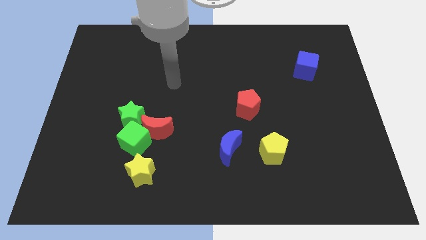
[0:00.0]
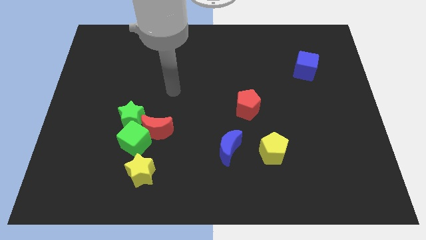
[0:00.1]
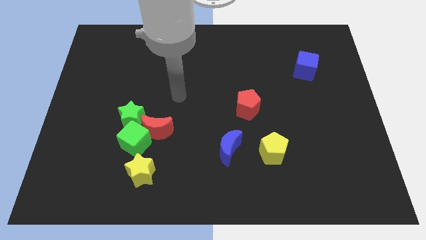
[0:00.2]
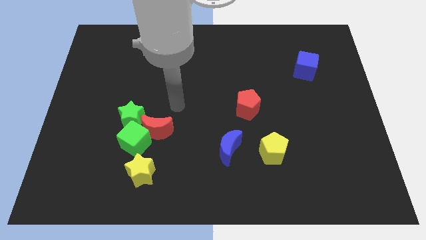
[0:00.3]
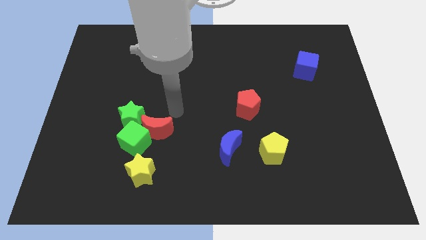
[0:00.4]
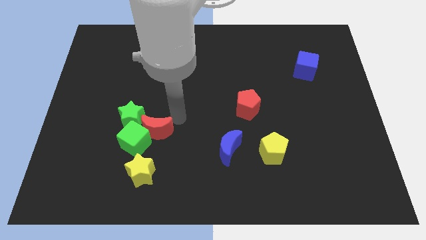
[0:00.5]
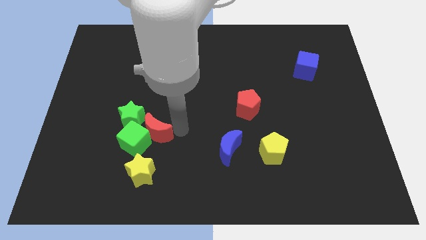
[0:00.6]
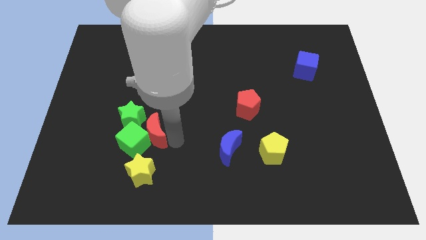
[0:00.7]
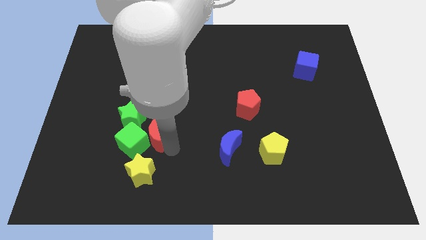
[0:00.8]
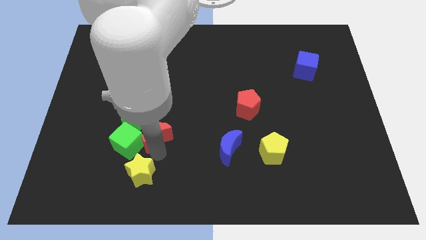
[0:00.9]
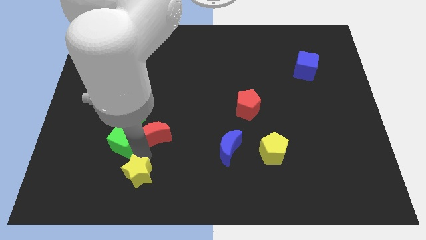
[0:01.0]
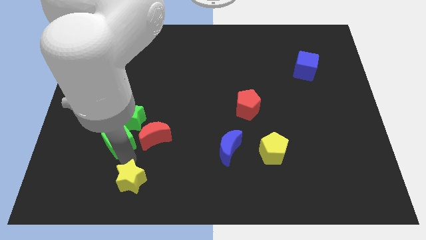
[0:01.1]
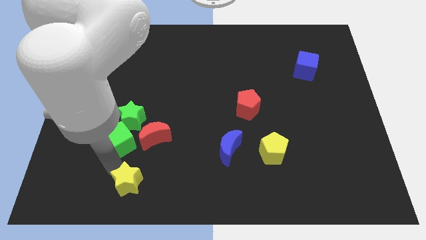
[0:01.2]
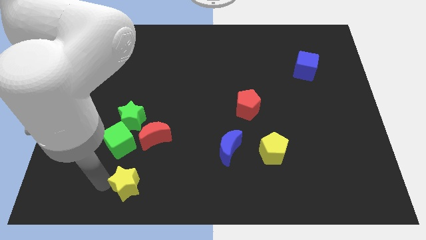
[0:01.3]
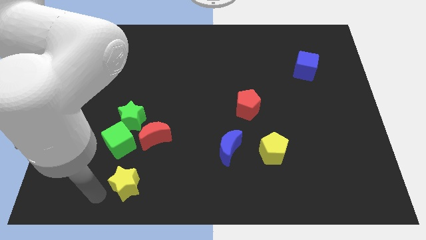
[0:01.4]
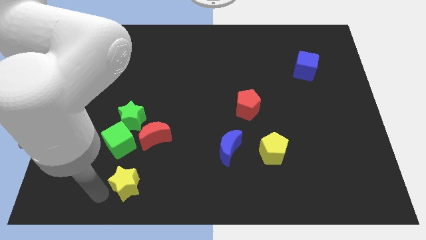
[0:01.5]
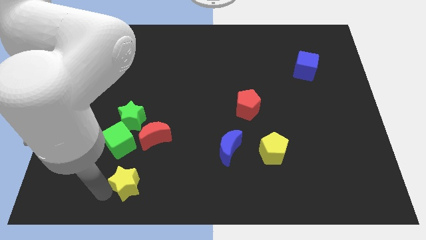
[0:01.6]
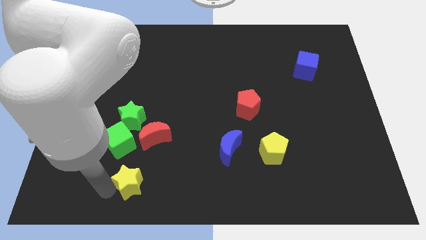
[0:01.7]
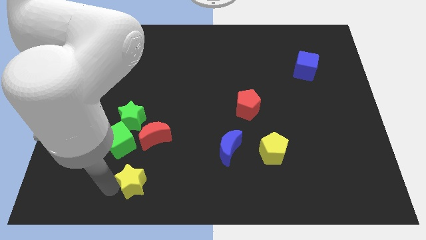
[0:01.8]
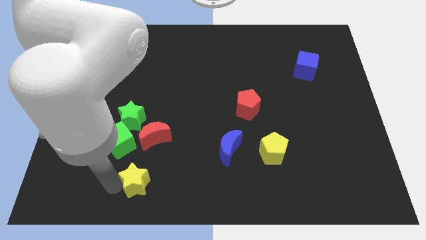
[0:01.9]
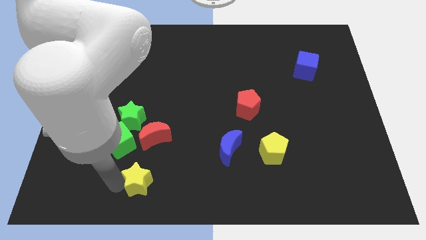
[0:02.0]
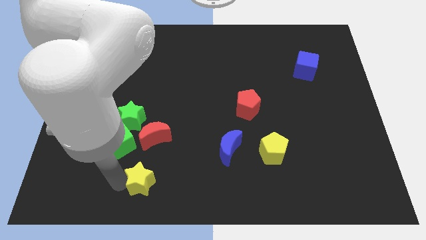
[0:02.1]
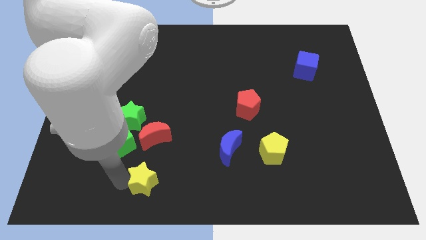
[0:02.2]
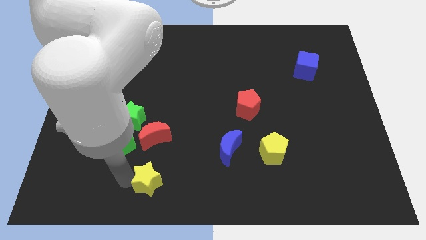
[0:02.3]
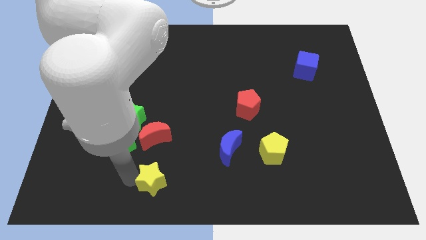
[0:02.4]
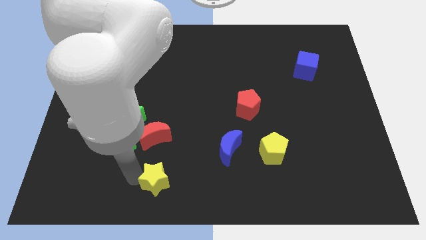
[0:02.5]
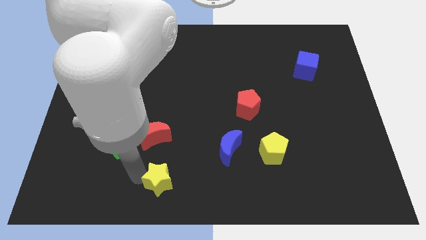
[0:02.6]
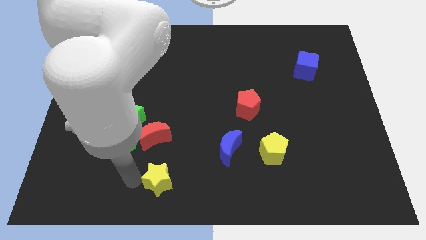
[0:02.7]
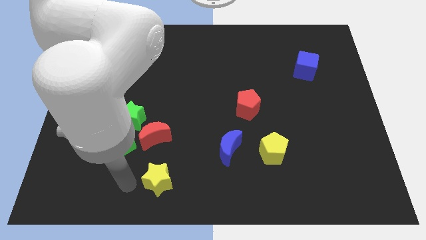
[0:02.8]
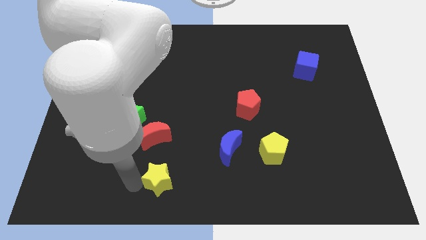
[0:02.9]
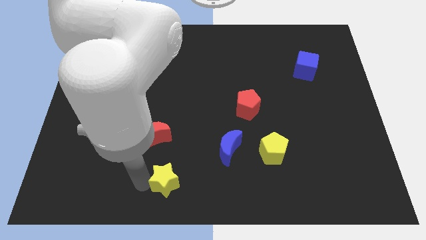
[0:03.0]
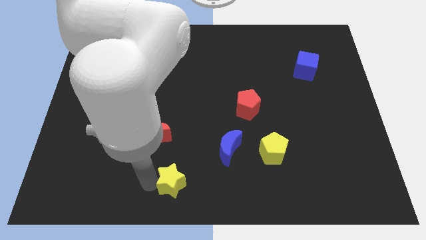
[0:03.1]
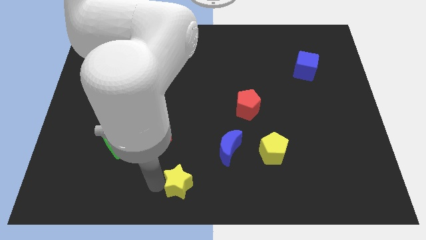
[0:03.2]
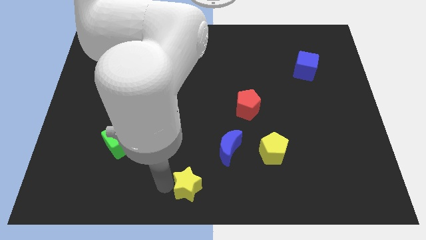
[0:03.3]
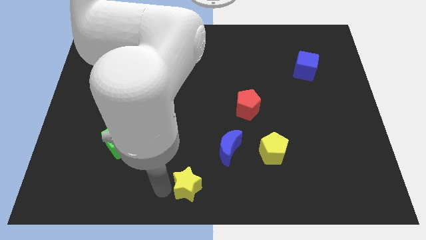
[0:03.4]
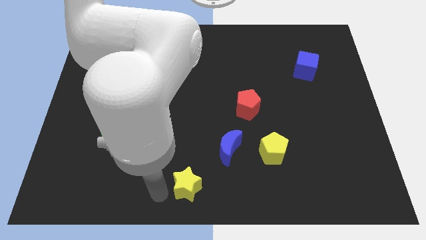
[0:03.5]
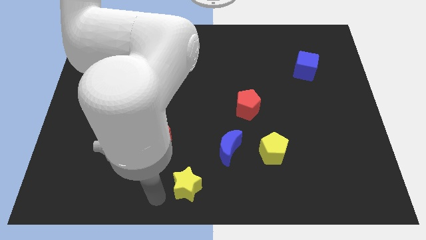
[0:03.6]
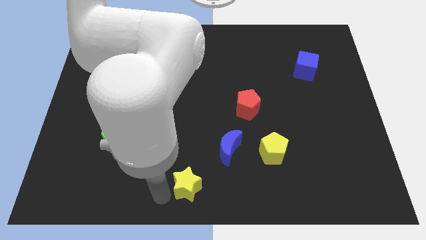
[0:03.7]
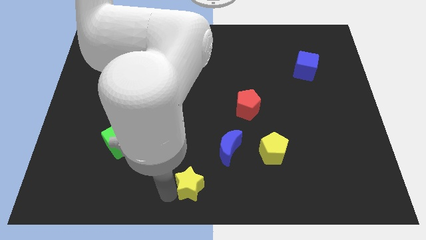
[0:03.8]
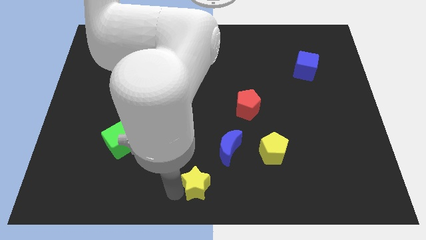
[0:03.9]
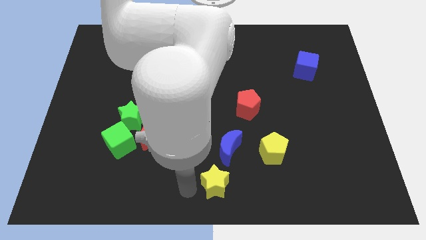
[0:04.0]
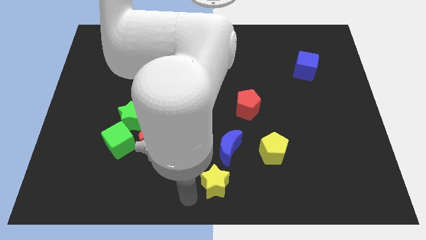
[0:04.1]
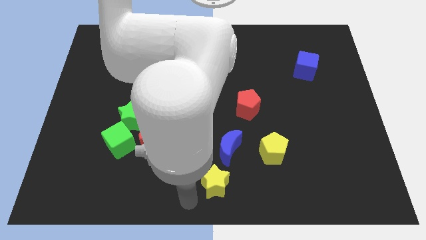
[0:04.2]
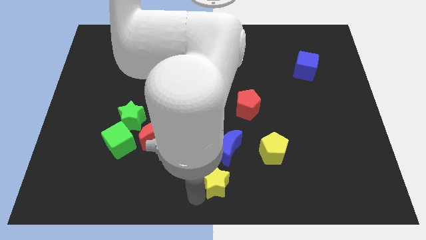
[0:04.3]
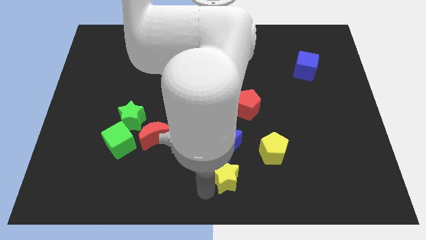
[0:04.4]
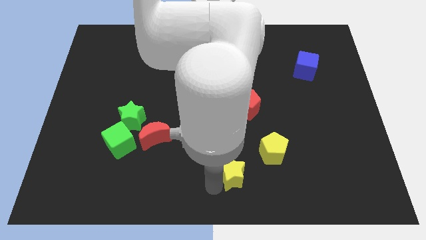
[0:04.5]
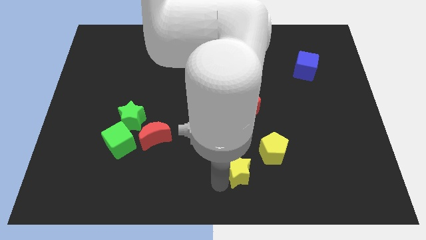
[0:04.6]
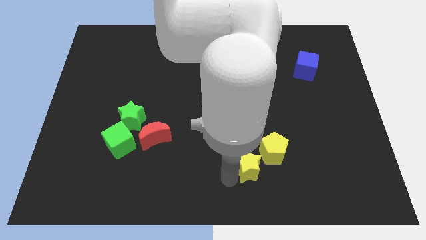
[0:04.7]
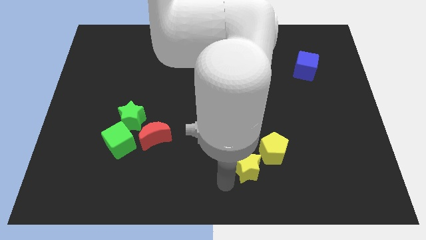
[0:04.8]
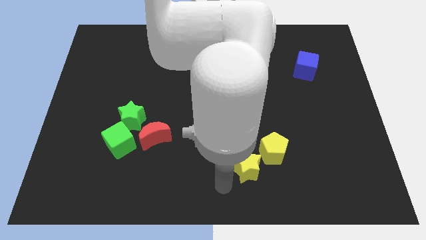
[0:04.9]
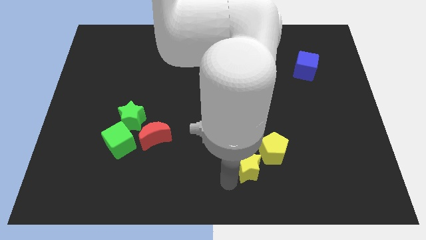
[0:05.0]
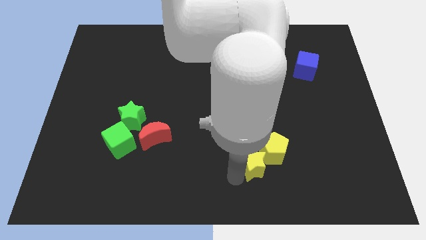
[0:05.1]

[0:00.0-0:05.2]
slide the yellow star towards the yellow pentagon

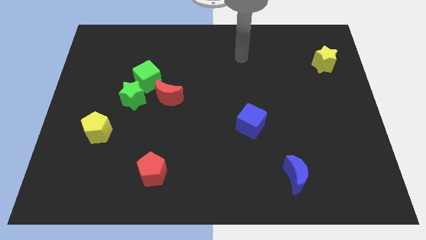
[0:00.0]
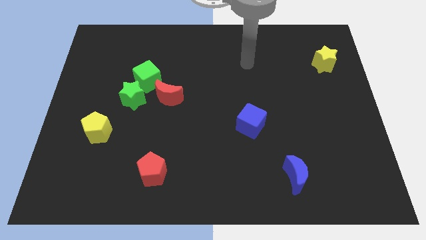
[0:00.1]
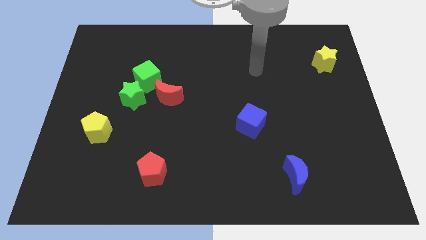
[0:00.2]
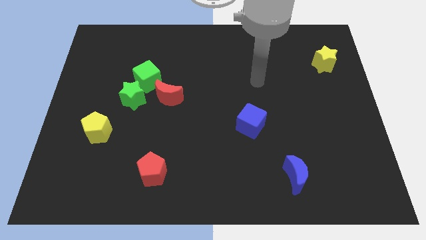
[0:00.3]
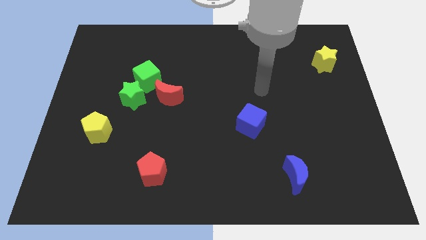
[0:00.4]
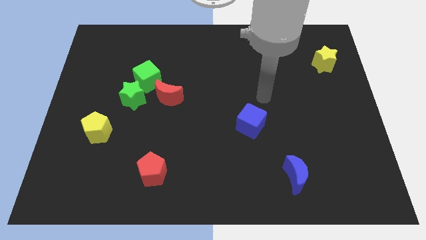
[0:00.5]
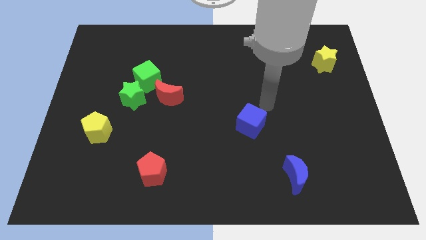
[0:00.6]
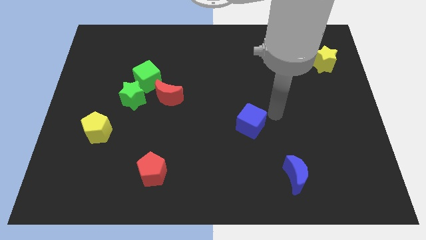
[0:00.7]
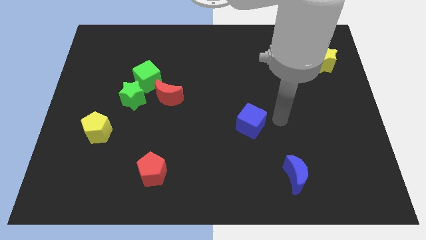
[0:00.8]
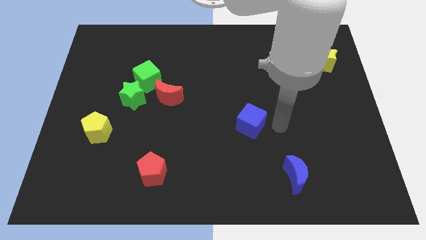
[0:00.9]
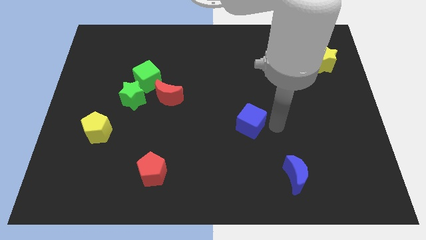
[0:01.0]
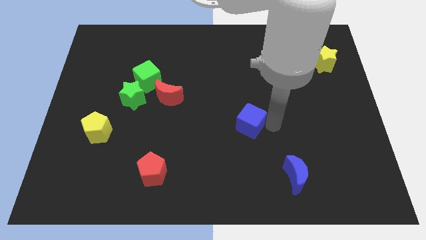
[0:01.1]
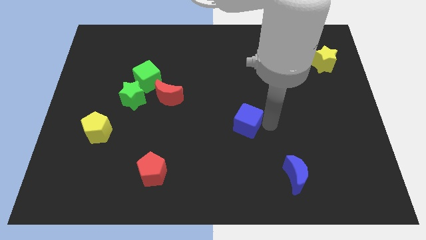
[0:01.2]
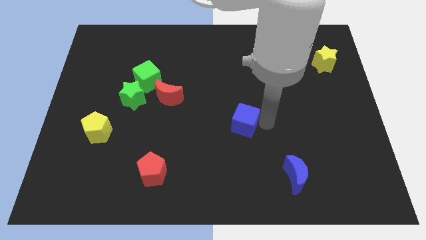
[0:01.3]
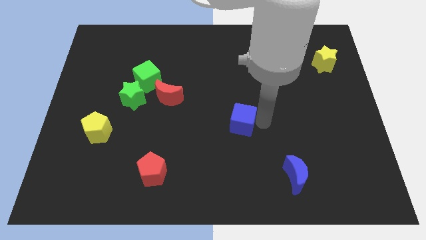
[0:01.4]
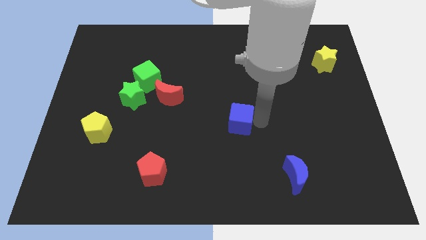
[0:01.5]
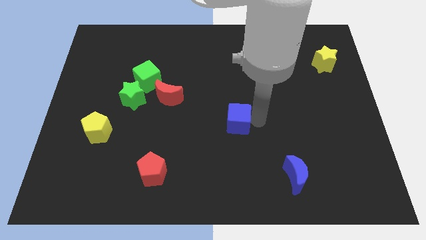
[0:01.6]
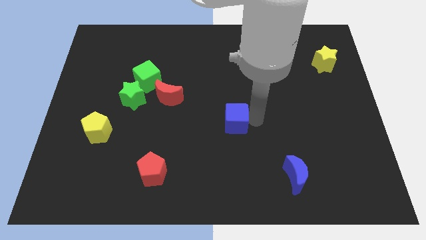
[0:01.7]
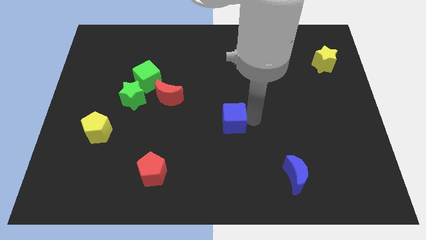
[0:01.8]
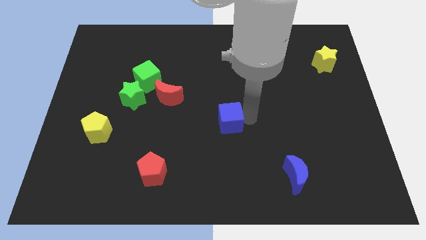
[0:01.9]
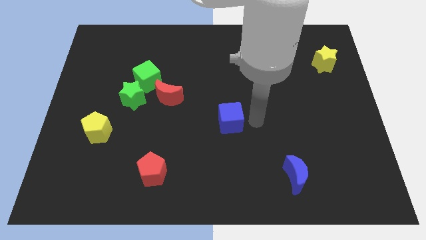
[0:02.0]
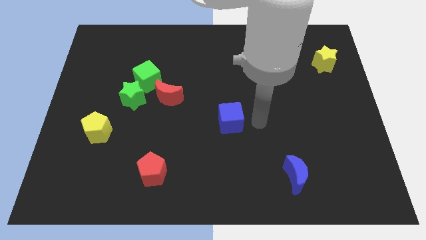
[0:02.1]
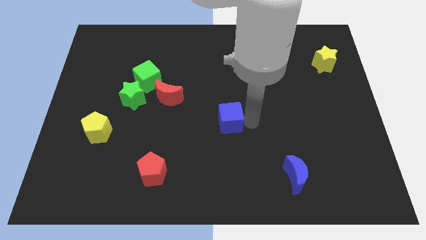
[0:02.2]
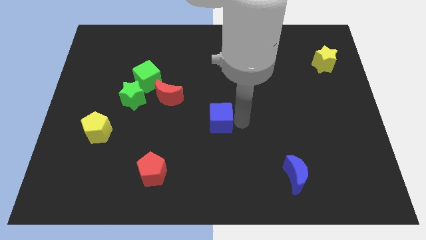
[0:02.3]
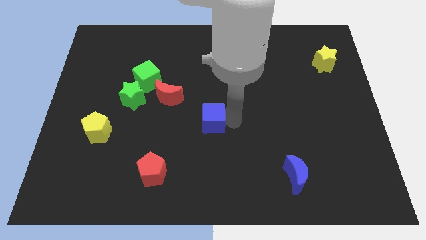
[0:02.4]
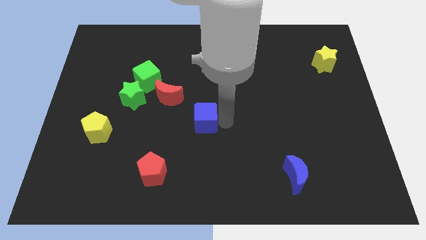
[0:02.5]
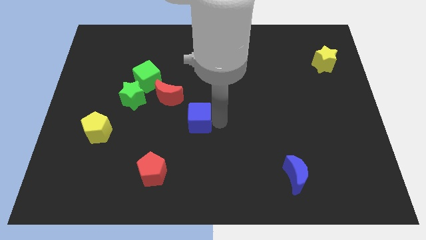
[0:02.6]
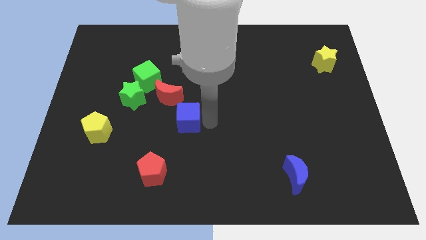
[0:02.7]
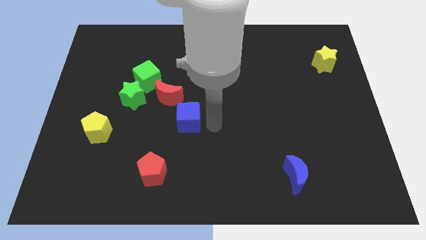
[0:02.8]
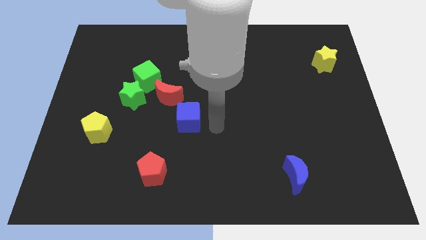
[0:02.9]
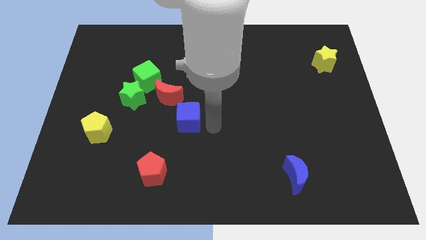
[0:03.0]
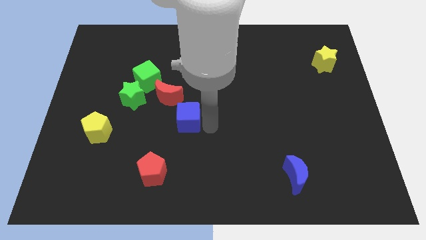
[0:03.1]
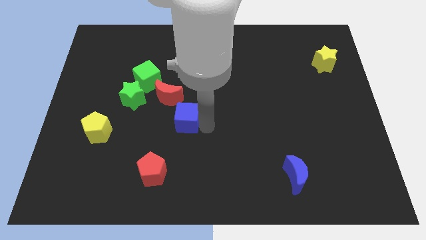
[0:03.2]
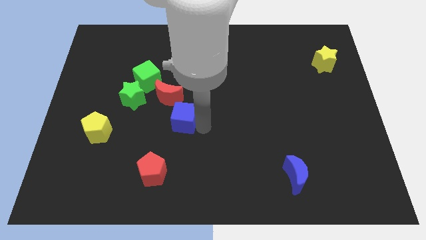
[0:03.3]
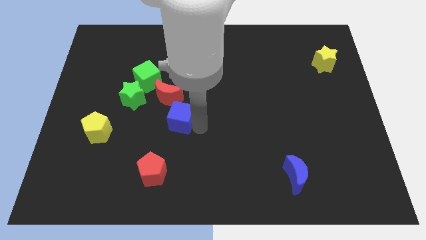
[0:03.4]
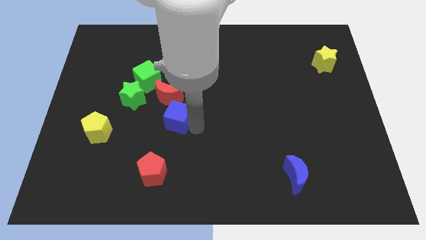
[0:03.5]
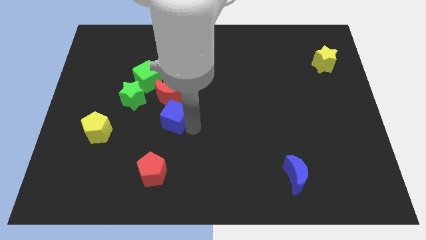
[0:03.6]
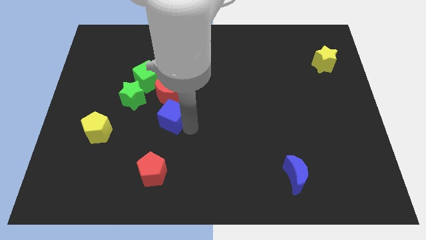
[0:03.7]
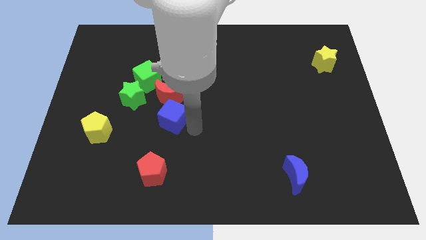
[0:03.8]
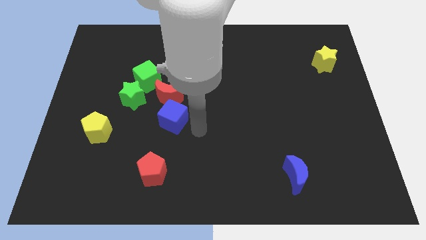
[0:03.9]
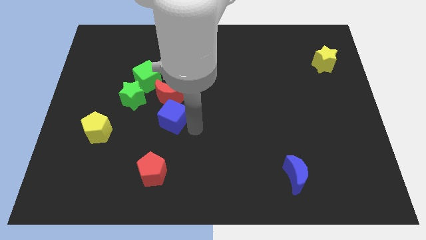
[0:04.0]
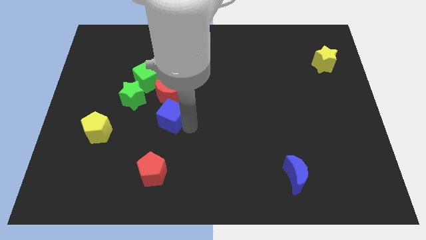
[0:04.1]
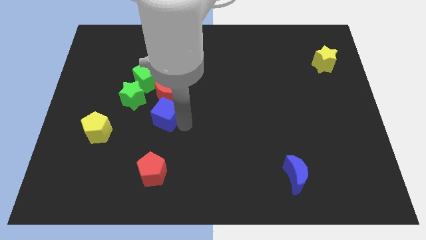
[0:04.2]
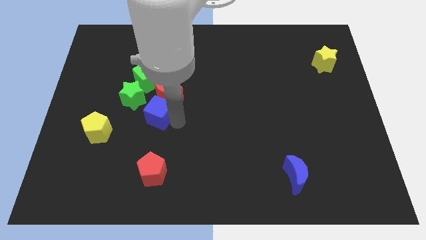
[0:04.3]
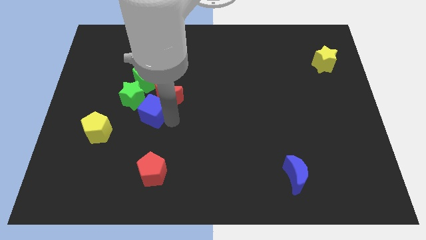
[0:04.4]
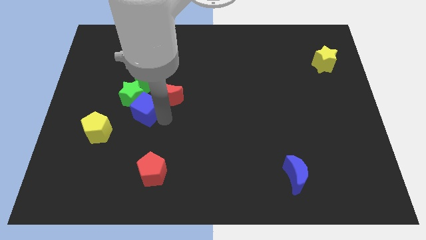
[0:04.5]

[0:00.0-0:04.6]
push the blue cube close to the green star
